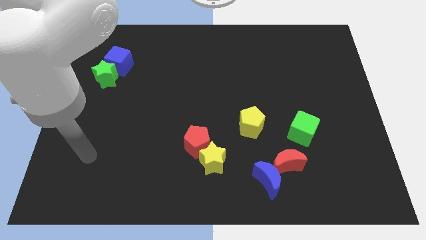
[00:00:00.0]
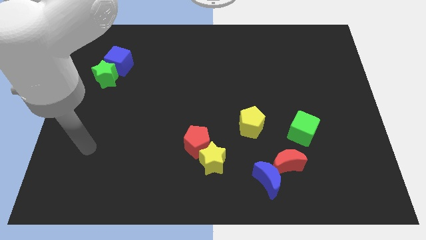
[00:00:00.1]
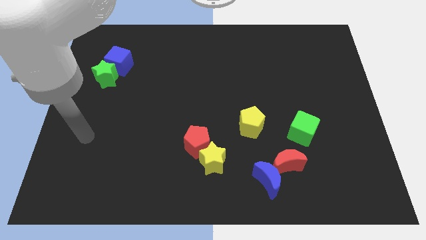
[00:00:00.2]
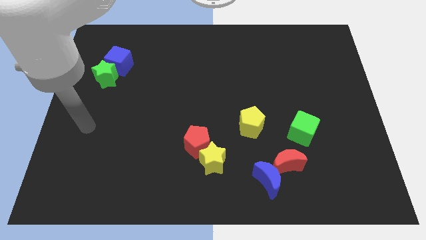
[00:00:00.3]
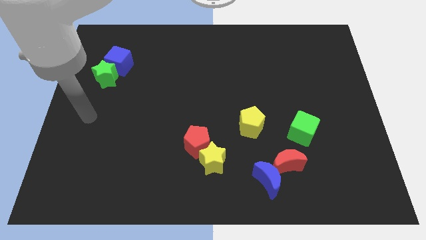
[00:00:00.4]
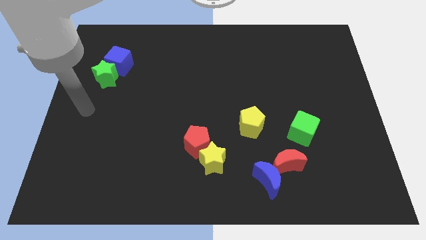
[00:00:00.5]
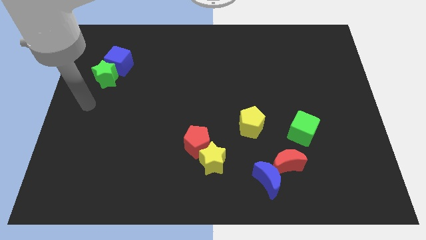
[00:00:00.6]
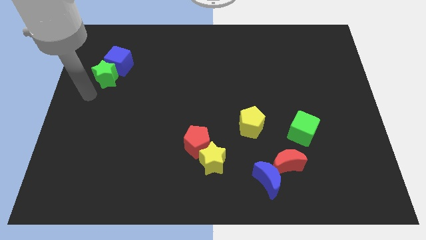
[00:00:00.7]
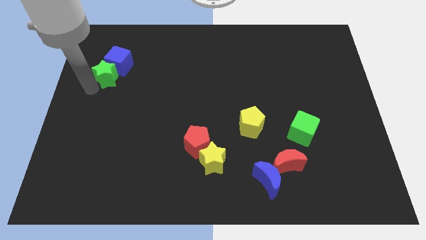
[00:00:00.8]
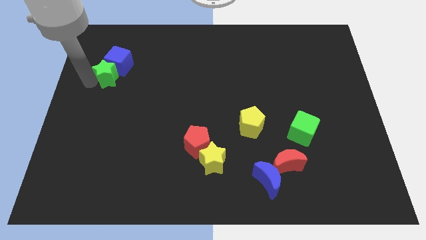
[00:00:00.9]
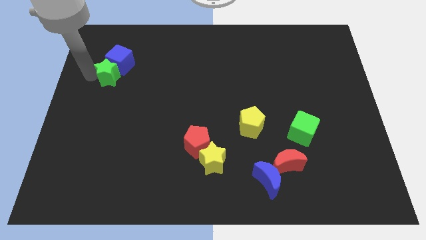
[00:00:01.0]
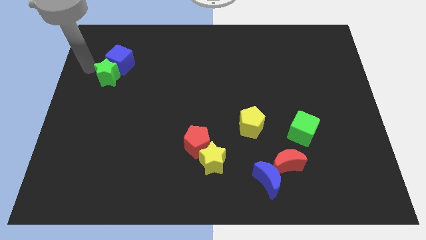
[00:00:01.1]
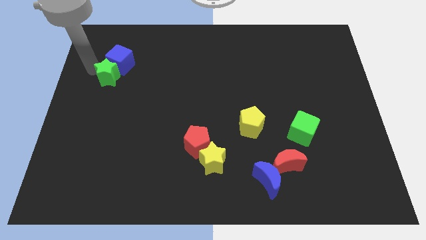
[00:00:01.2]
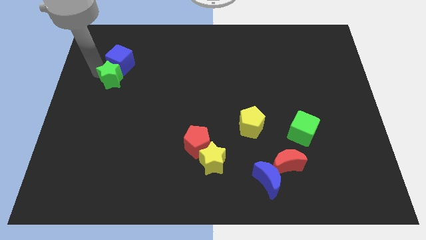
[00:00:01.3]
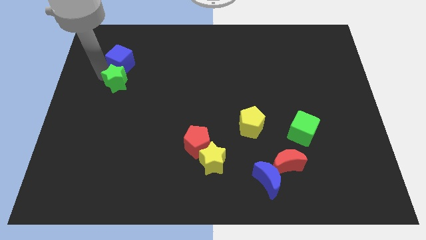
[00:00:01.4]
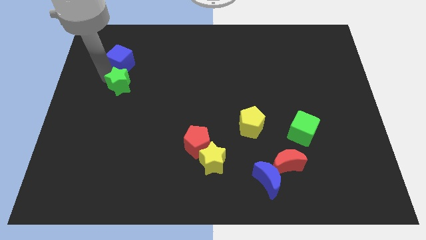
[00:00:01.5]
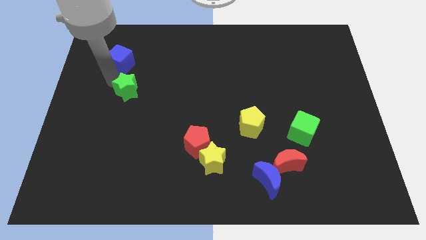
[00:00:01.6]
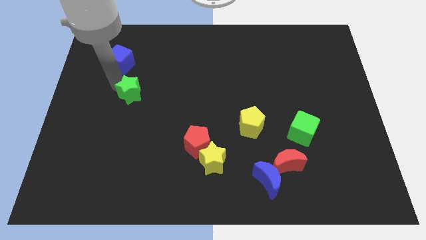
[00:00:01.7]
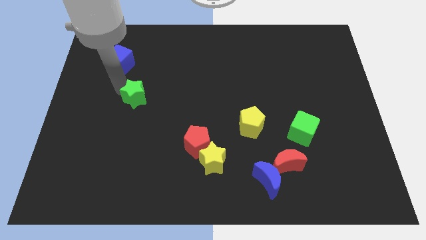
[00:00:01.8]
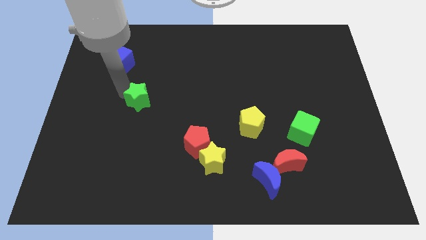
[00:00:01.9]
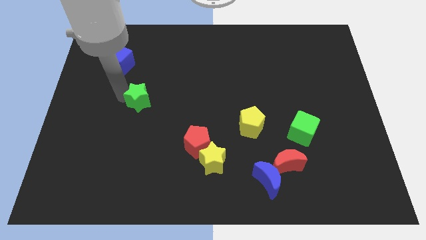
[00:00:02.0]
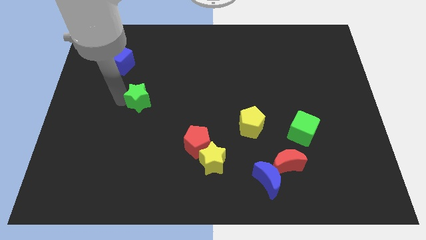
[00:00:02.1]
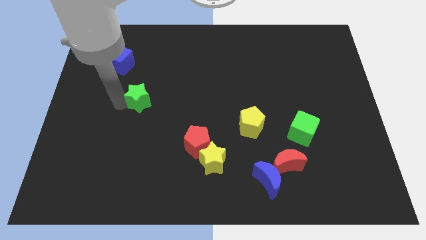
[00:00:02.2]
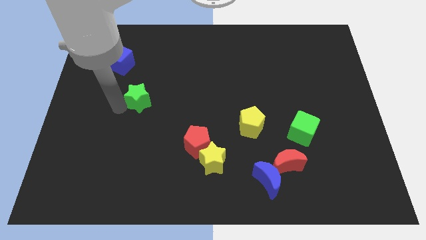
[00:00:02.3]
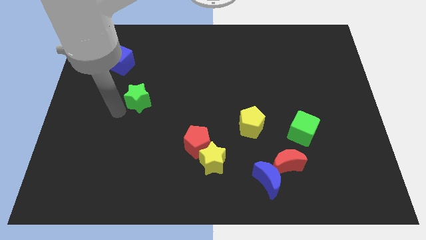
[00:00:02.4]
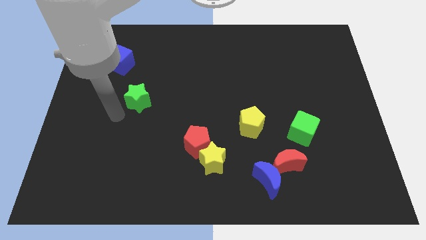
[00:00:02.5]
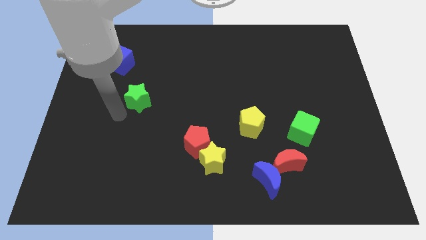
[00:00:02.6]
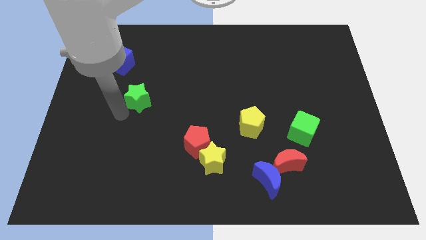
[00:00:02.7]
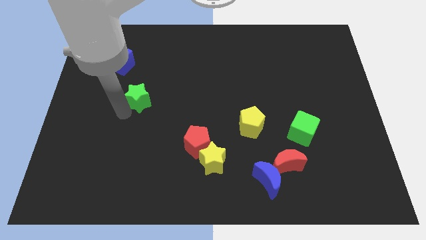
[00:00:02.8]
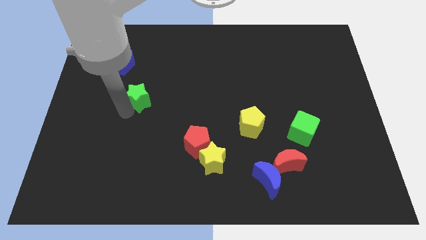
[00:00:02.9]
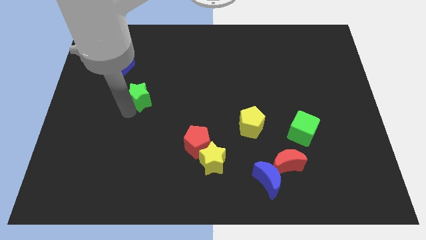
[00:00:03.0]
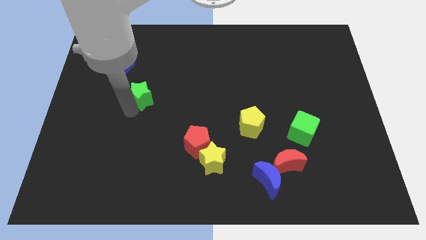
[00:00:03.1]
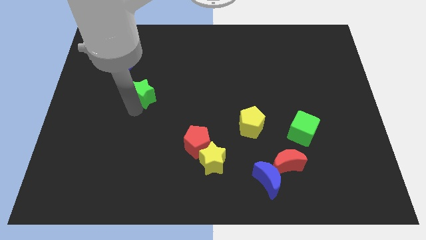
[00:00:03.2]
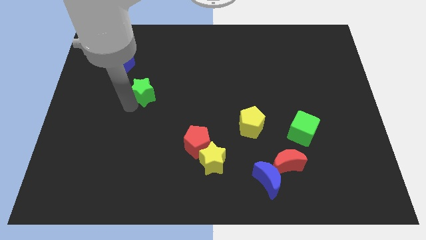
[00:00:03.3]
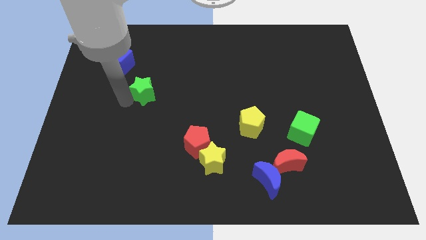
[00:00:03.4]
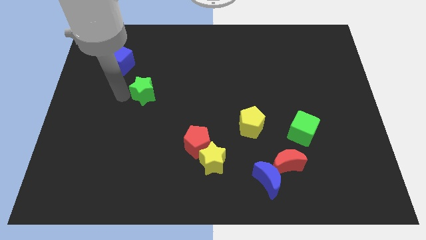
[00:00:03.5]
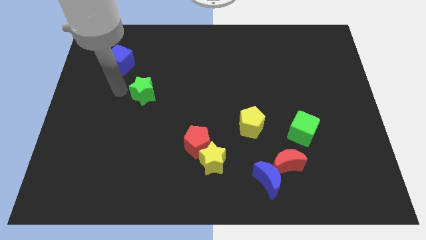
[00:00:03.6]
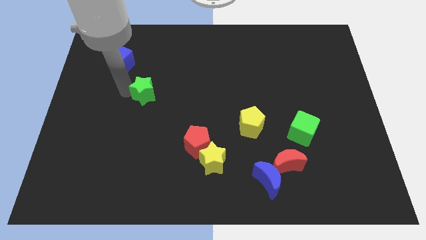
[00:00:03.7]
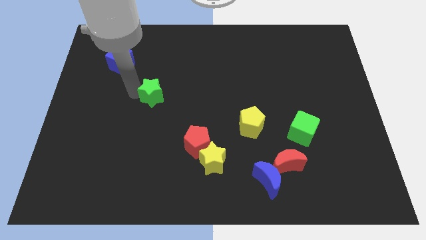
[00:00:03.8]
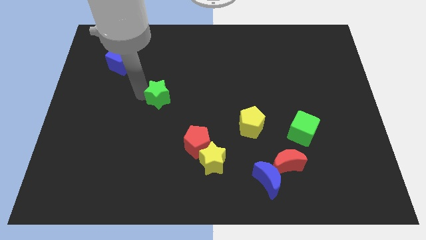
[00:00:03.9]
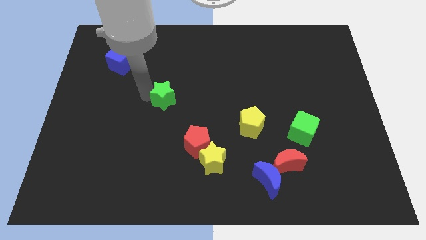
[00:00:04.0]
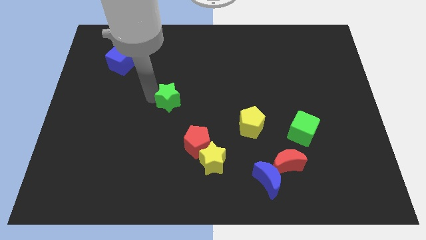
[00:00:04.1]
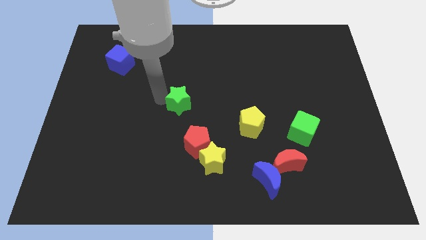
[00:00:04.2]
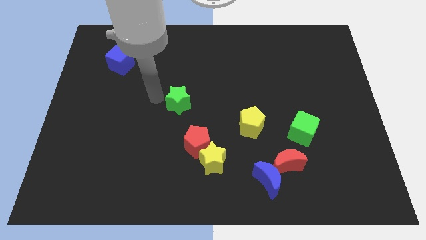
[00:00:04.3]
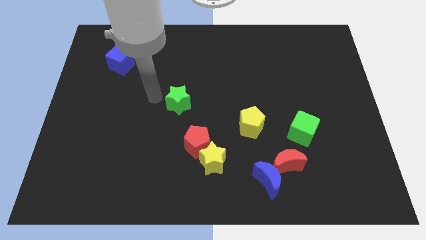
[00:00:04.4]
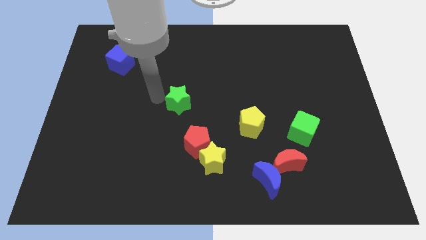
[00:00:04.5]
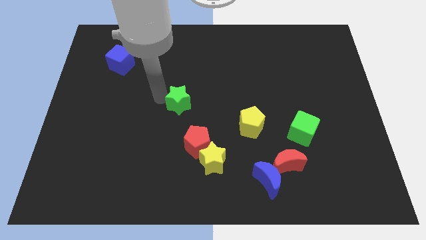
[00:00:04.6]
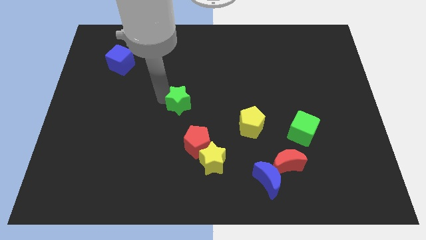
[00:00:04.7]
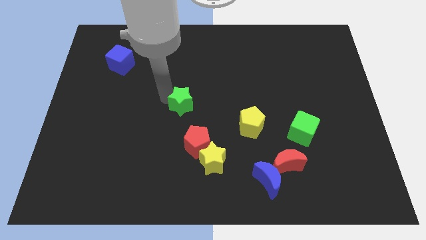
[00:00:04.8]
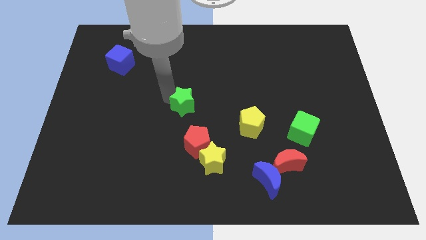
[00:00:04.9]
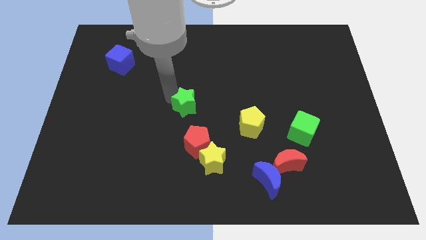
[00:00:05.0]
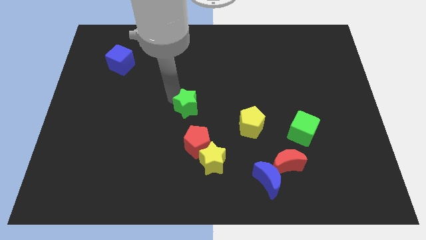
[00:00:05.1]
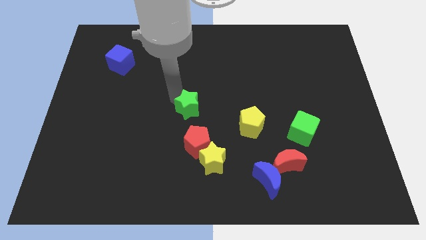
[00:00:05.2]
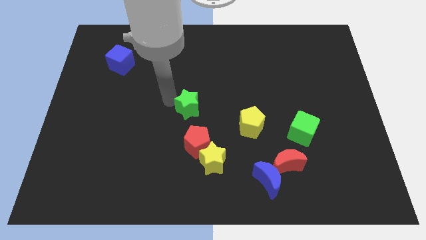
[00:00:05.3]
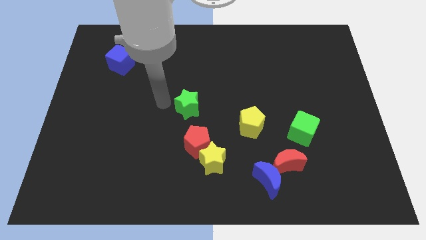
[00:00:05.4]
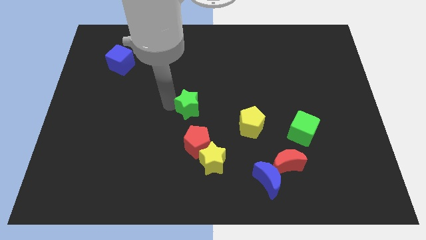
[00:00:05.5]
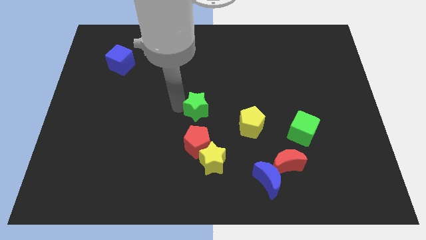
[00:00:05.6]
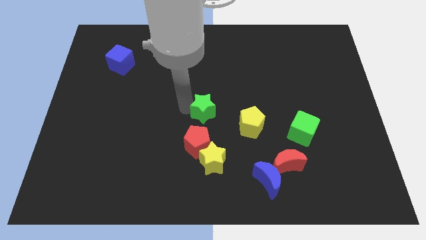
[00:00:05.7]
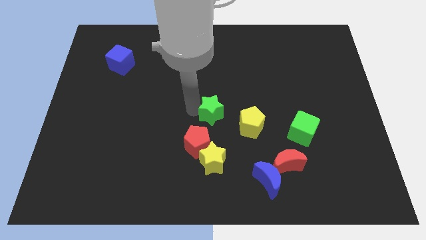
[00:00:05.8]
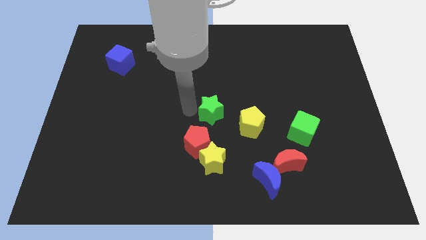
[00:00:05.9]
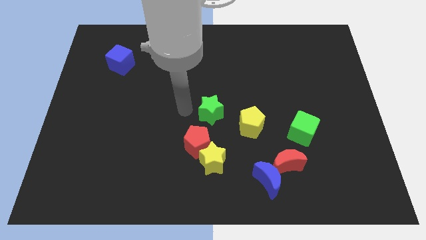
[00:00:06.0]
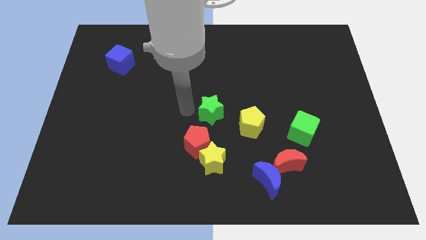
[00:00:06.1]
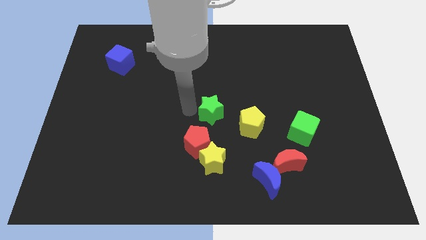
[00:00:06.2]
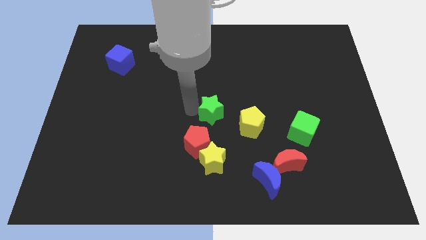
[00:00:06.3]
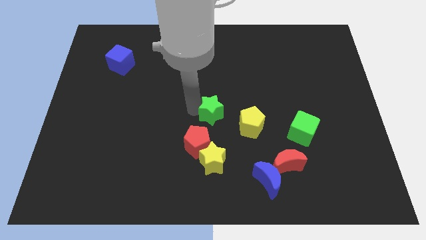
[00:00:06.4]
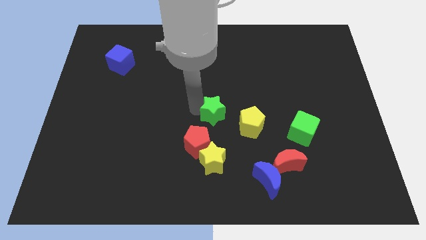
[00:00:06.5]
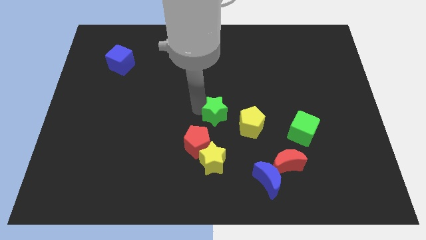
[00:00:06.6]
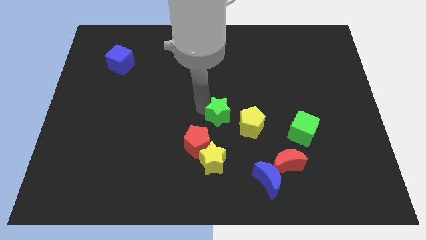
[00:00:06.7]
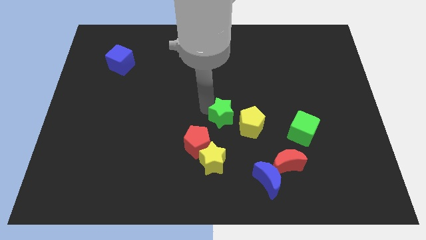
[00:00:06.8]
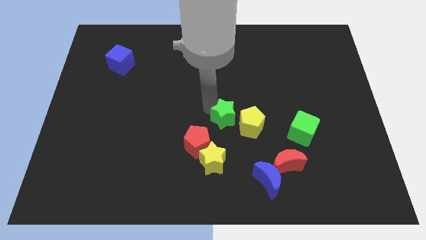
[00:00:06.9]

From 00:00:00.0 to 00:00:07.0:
move the green star to the yellow pentagon
